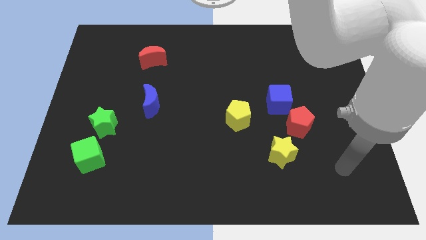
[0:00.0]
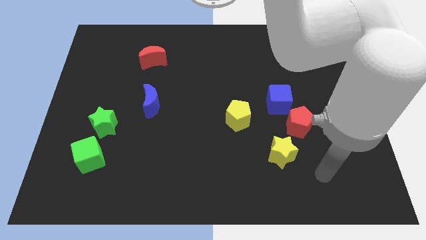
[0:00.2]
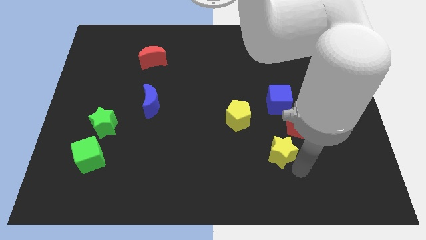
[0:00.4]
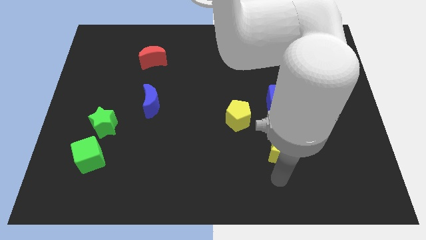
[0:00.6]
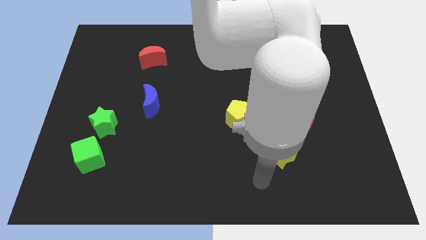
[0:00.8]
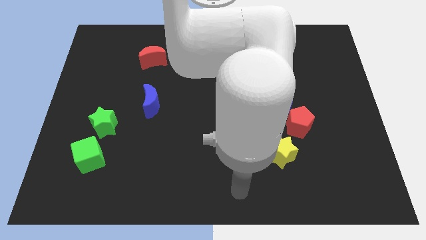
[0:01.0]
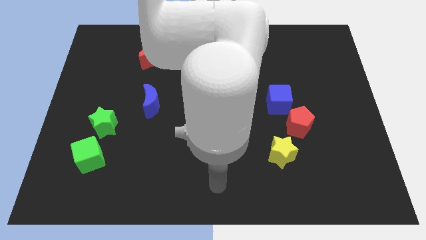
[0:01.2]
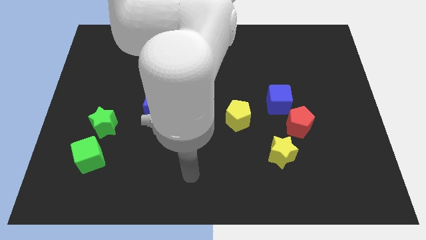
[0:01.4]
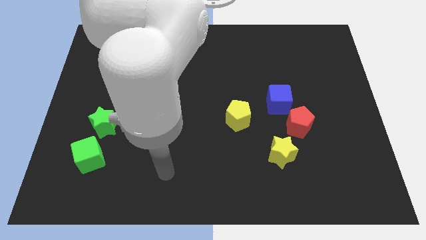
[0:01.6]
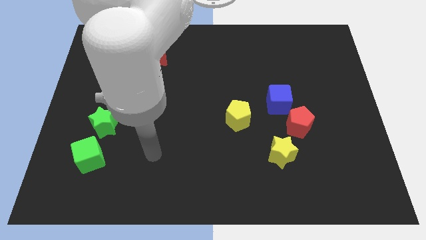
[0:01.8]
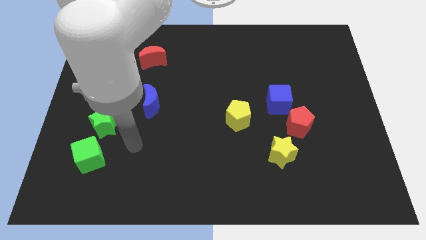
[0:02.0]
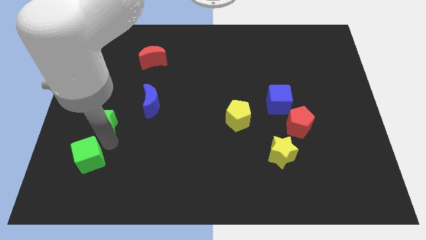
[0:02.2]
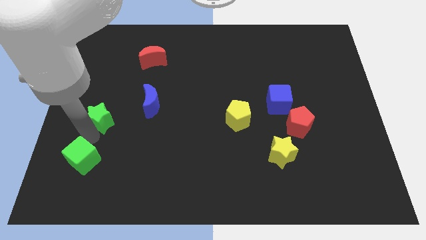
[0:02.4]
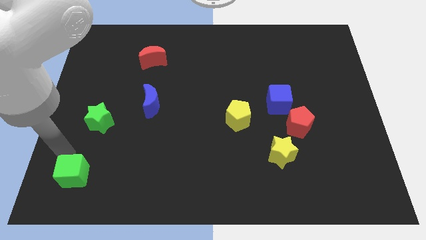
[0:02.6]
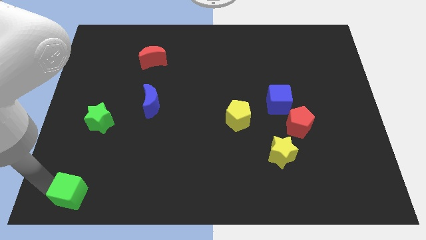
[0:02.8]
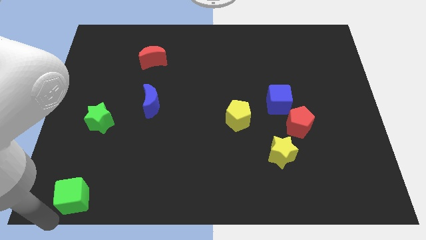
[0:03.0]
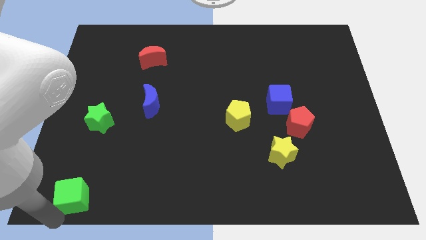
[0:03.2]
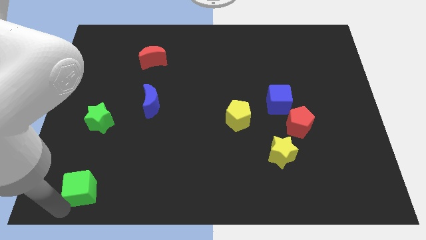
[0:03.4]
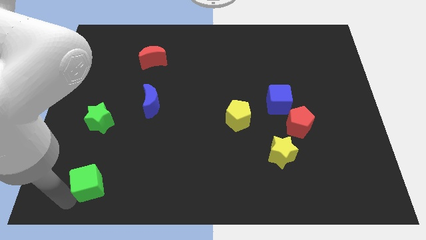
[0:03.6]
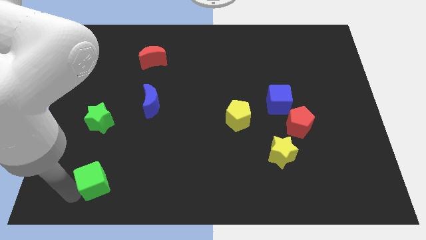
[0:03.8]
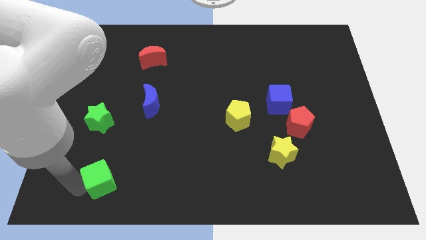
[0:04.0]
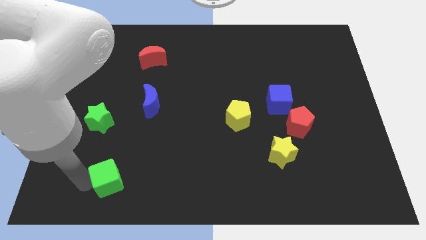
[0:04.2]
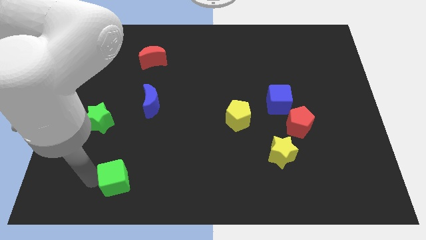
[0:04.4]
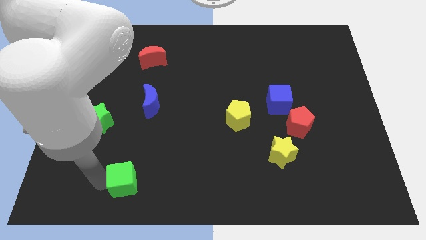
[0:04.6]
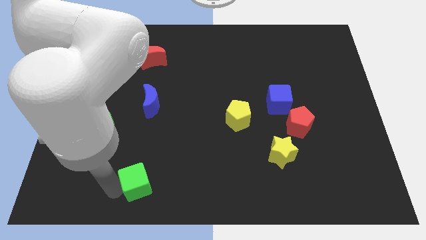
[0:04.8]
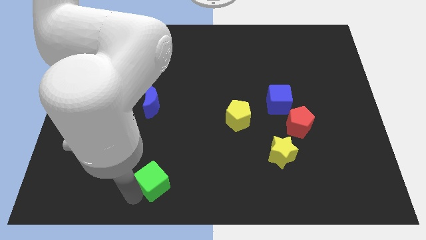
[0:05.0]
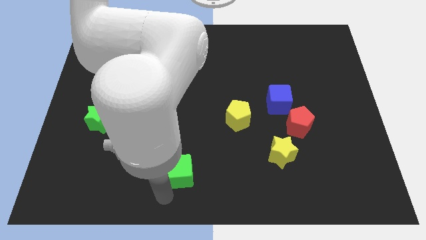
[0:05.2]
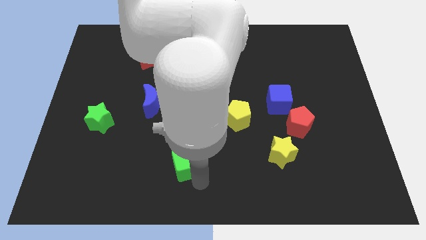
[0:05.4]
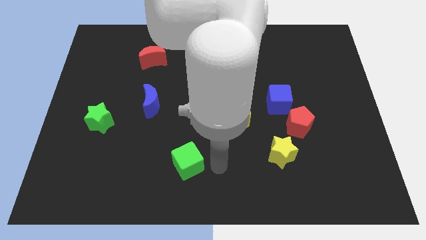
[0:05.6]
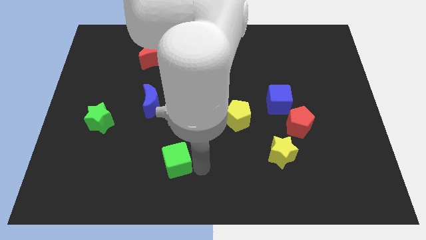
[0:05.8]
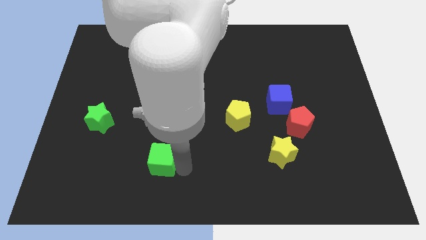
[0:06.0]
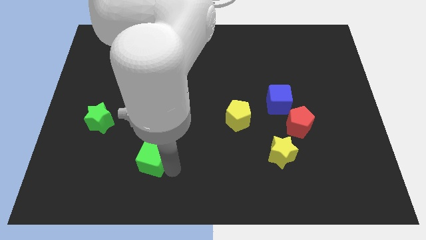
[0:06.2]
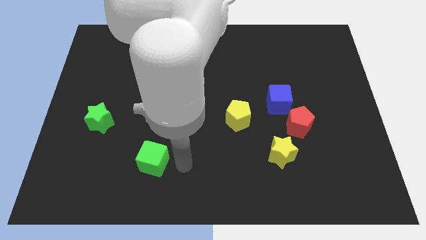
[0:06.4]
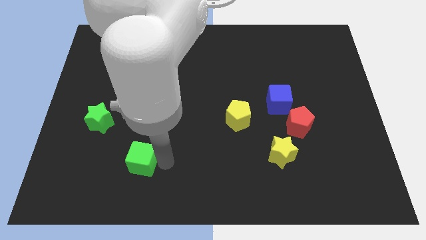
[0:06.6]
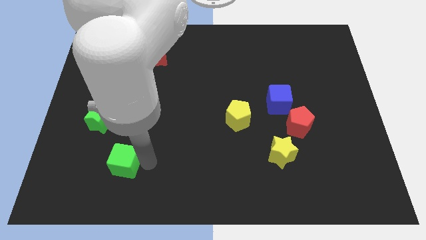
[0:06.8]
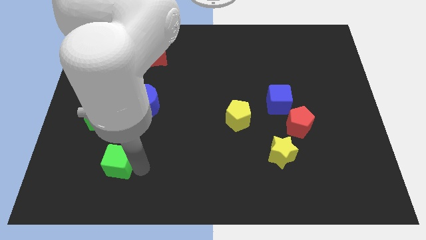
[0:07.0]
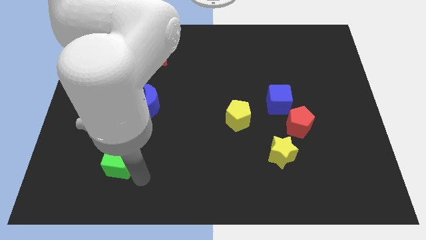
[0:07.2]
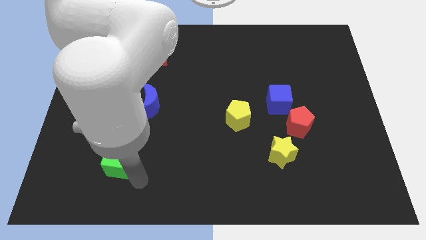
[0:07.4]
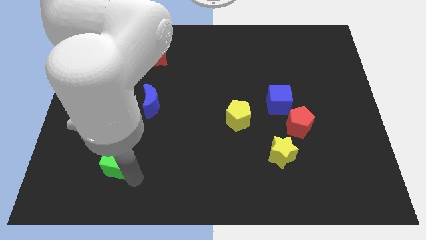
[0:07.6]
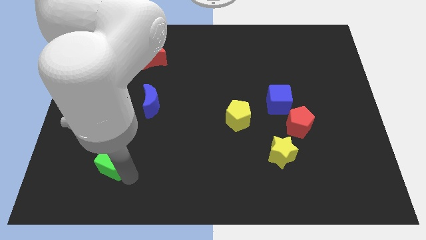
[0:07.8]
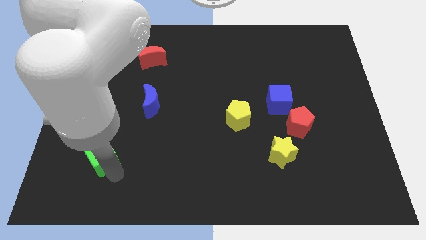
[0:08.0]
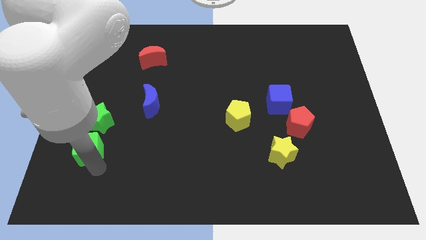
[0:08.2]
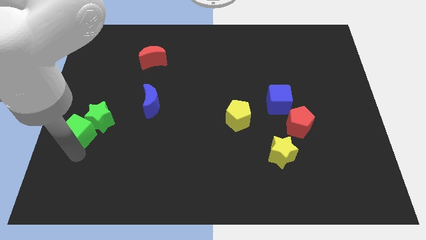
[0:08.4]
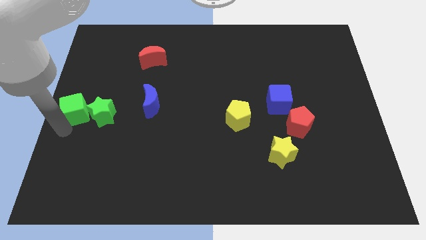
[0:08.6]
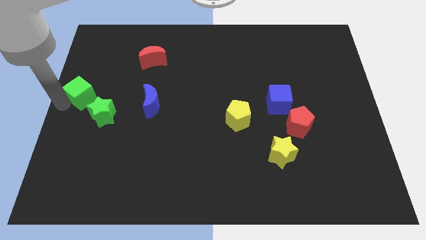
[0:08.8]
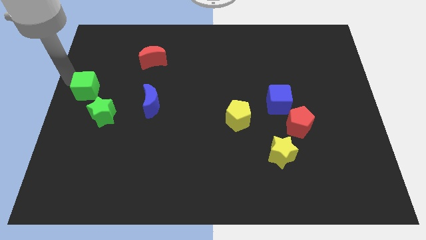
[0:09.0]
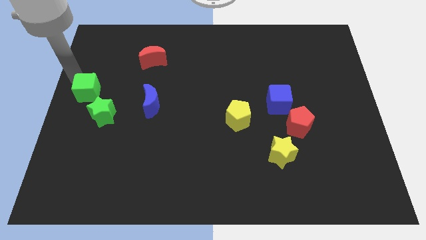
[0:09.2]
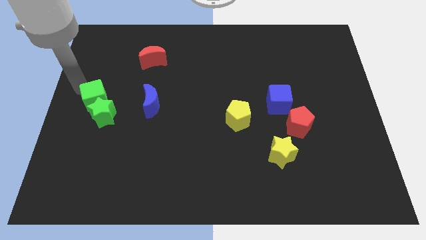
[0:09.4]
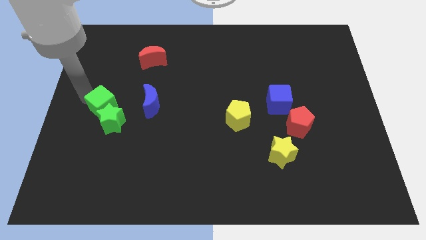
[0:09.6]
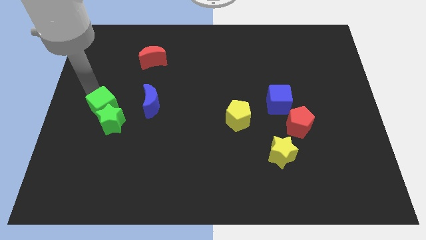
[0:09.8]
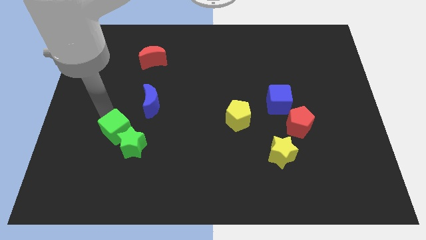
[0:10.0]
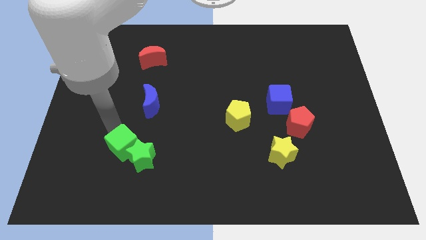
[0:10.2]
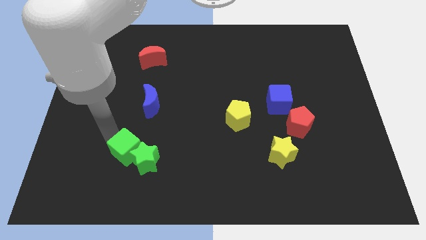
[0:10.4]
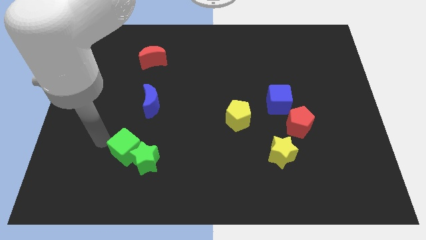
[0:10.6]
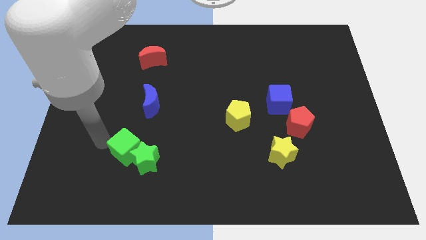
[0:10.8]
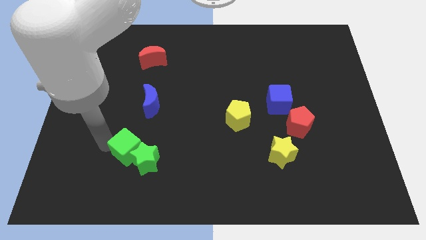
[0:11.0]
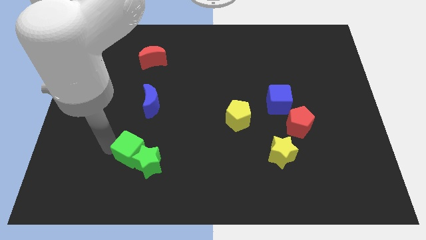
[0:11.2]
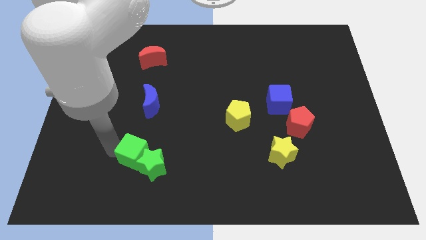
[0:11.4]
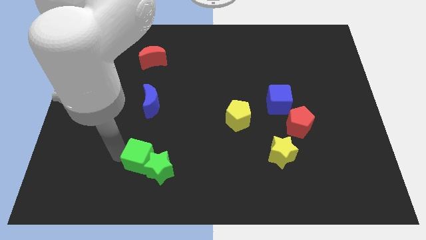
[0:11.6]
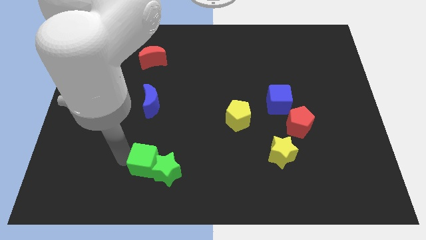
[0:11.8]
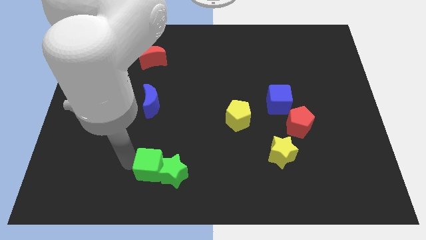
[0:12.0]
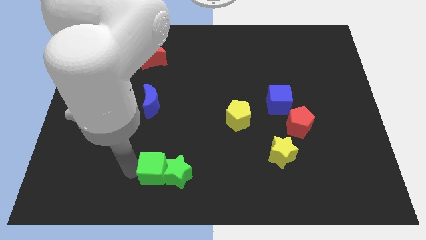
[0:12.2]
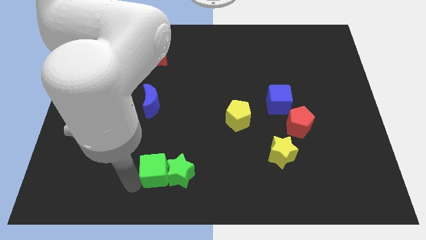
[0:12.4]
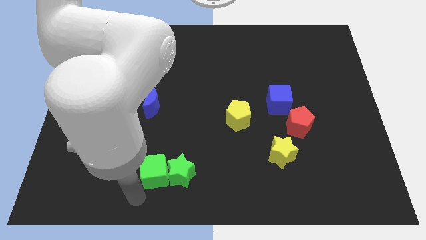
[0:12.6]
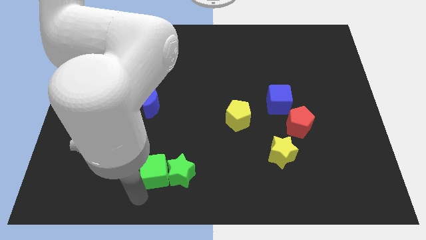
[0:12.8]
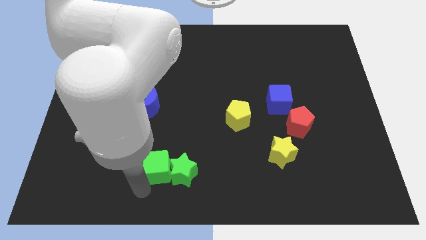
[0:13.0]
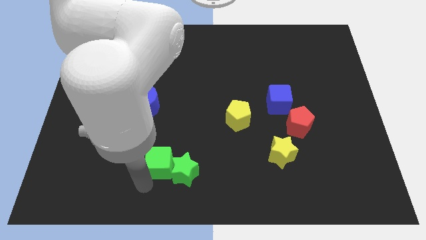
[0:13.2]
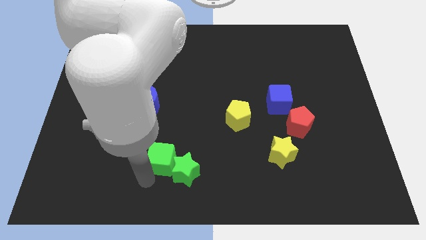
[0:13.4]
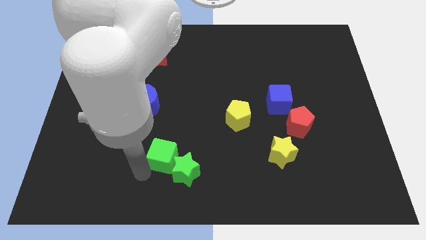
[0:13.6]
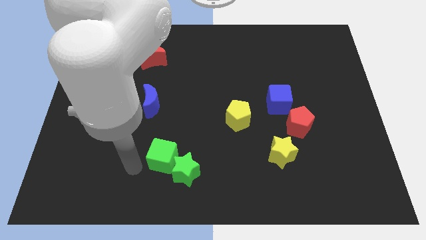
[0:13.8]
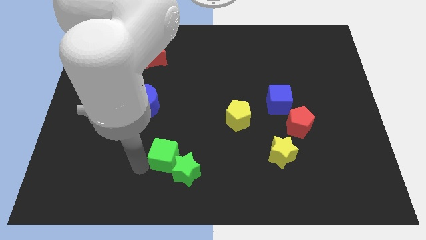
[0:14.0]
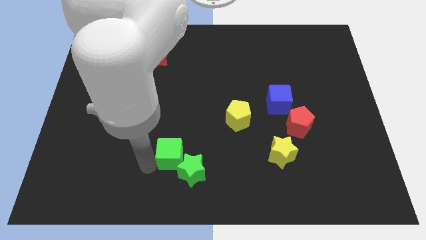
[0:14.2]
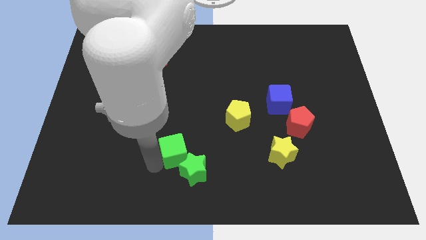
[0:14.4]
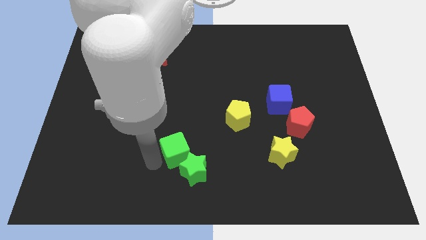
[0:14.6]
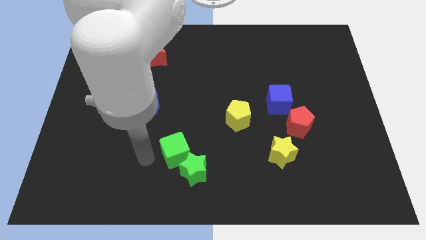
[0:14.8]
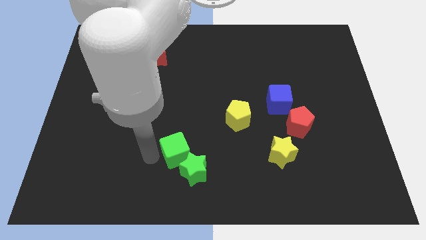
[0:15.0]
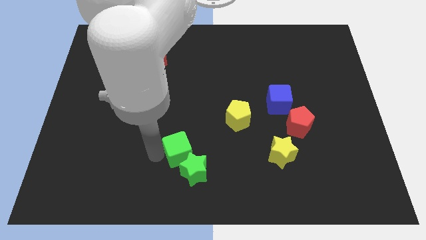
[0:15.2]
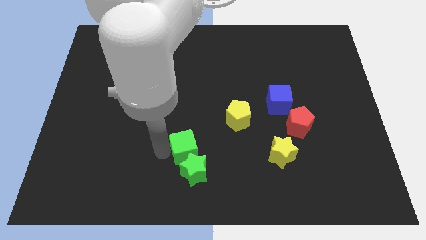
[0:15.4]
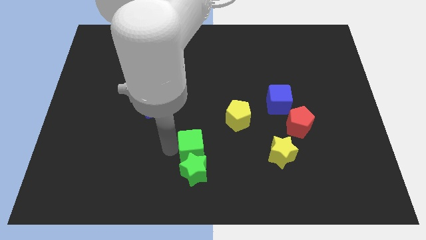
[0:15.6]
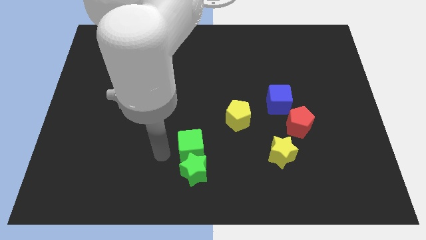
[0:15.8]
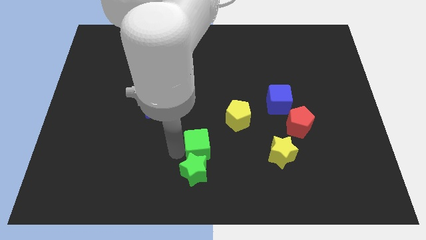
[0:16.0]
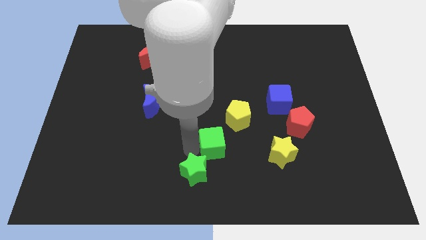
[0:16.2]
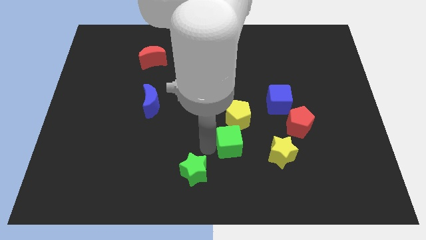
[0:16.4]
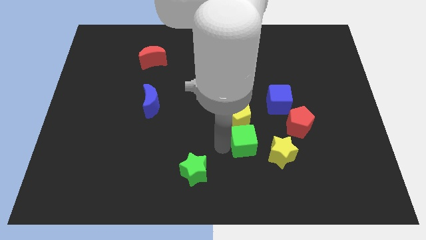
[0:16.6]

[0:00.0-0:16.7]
move the green cube diagonally down and to the right of the yellow pentagon
